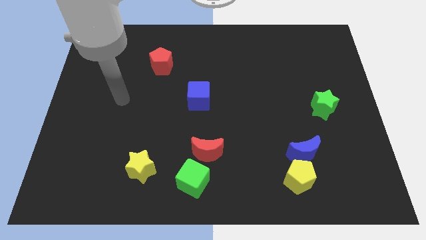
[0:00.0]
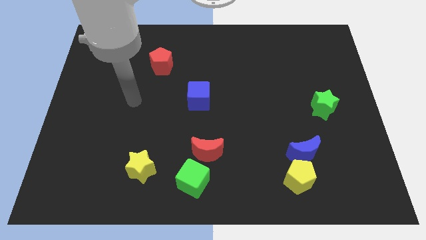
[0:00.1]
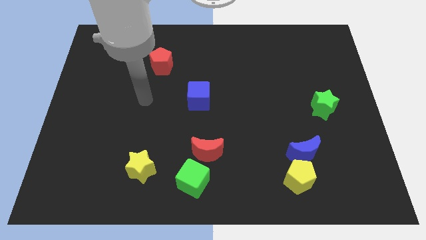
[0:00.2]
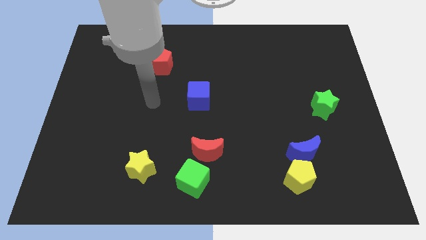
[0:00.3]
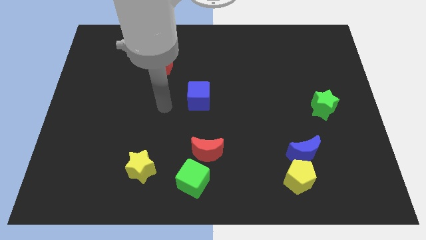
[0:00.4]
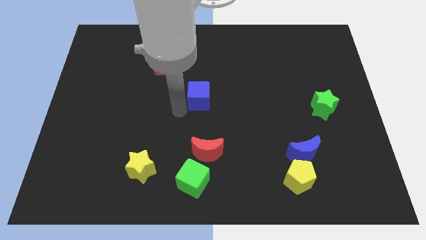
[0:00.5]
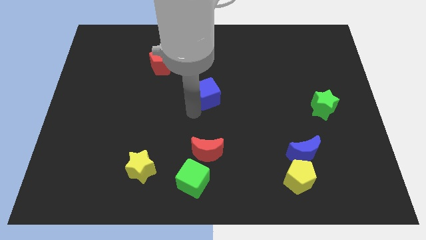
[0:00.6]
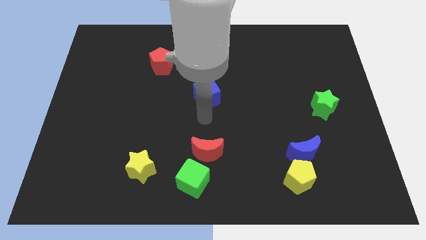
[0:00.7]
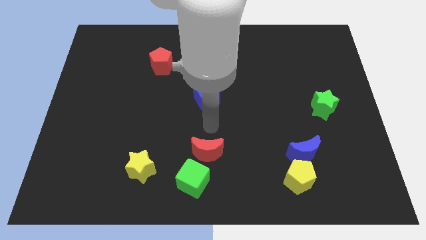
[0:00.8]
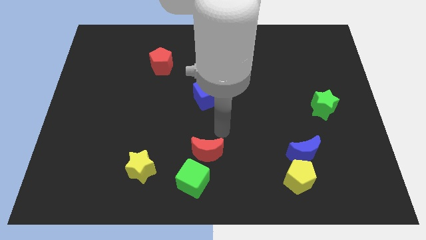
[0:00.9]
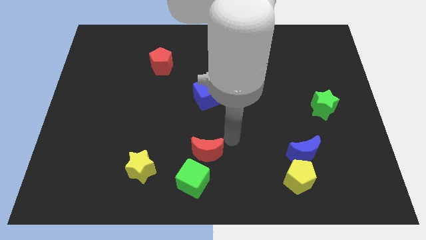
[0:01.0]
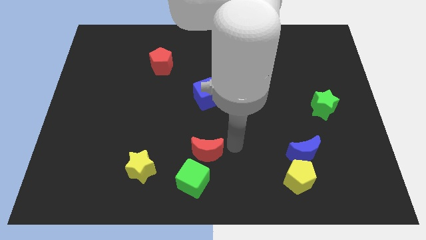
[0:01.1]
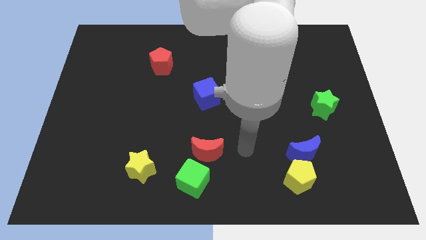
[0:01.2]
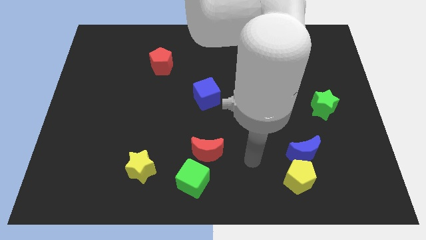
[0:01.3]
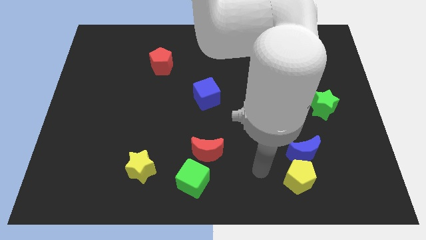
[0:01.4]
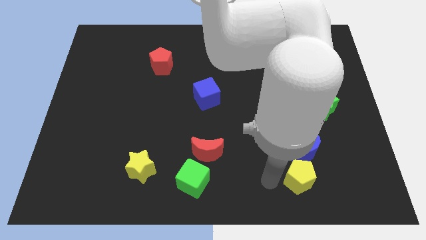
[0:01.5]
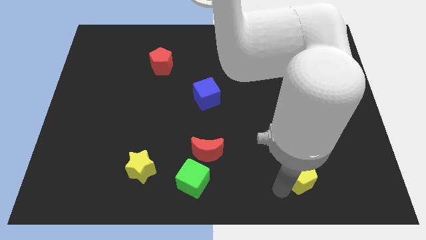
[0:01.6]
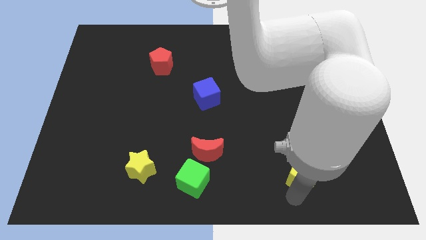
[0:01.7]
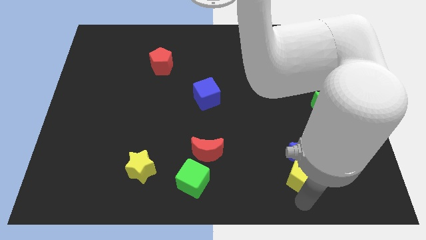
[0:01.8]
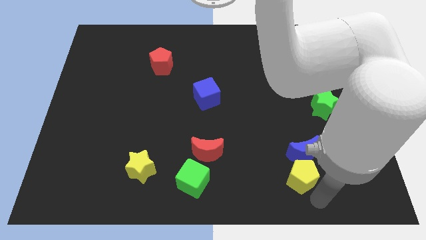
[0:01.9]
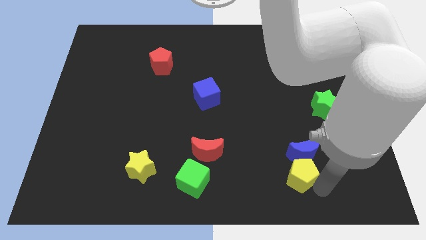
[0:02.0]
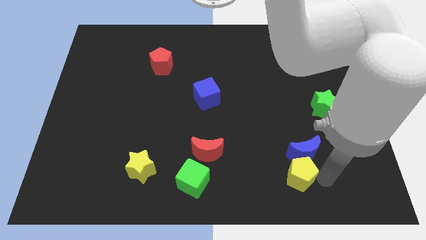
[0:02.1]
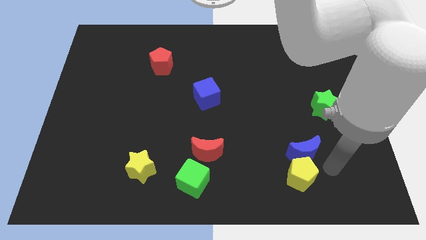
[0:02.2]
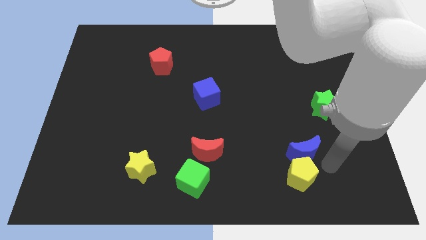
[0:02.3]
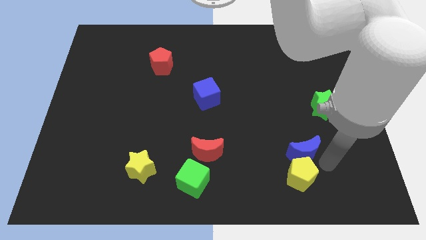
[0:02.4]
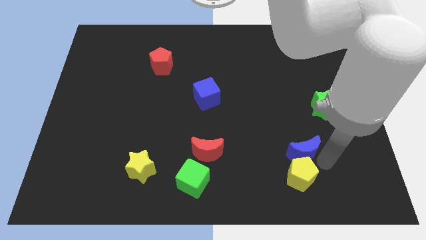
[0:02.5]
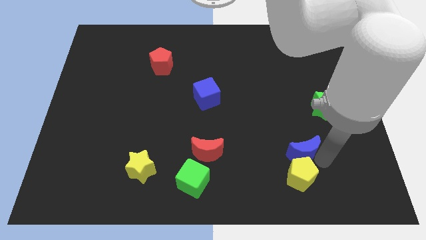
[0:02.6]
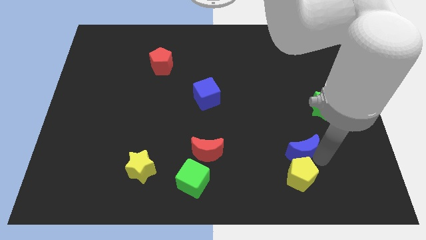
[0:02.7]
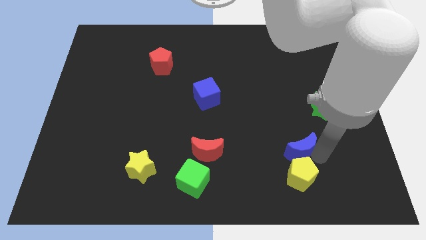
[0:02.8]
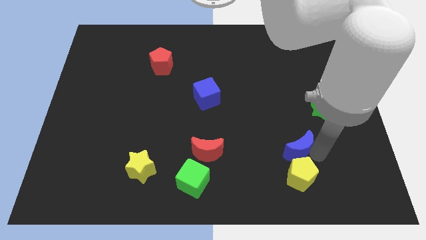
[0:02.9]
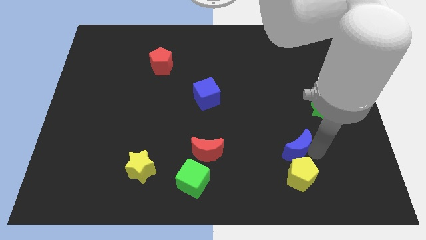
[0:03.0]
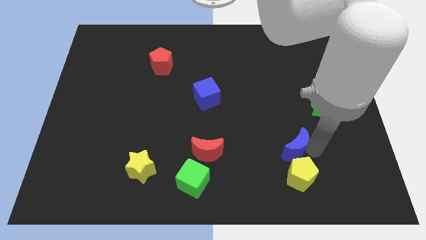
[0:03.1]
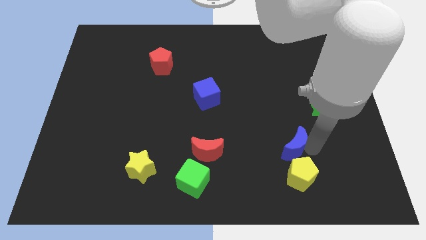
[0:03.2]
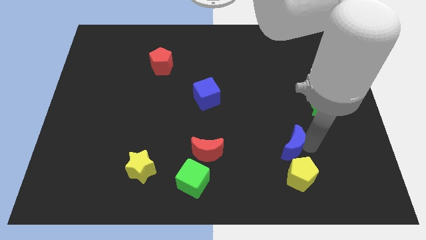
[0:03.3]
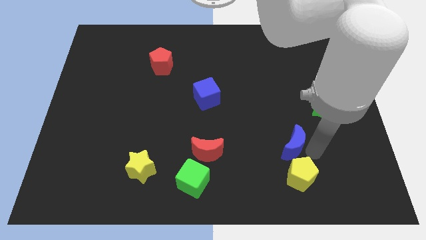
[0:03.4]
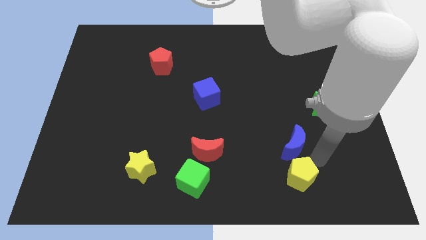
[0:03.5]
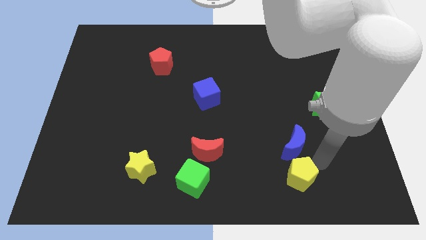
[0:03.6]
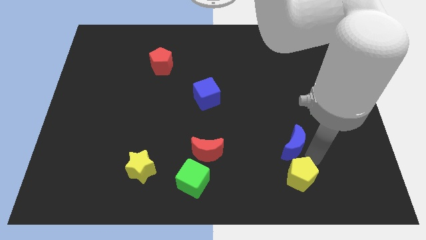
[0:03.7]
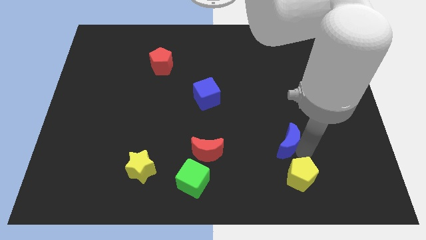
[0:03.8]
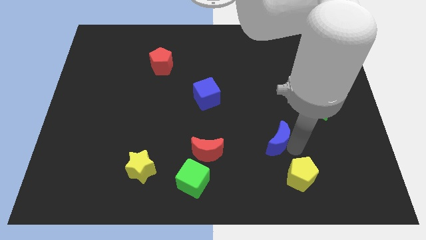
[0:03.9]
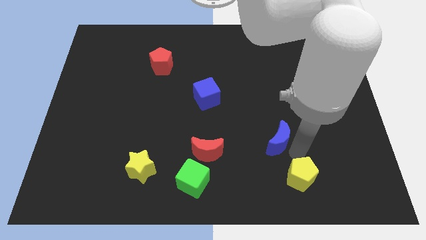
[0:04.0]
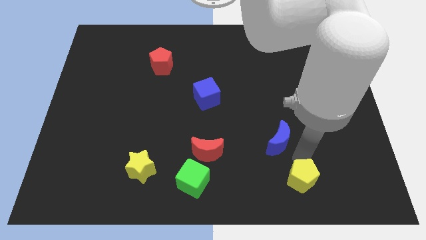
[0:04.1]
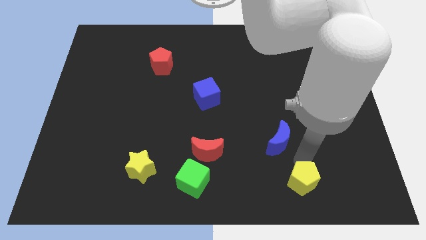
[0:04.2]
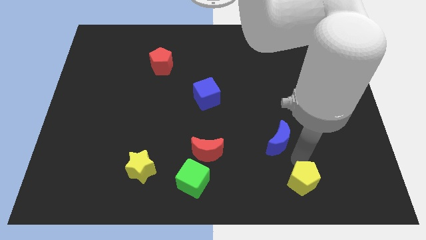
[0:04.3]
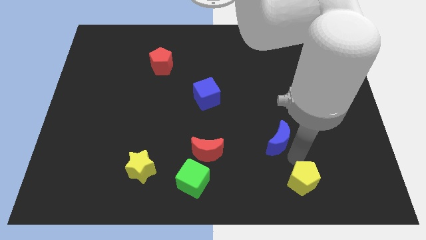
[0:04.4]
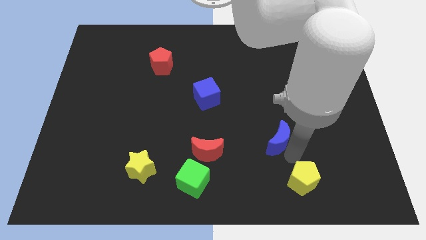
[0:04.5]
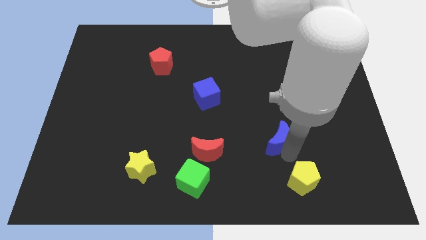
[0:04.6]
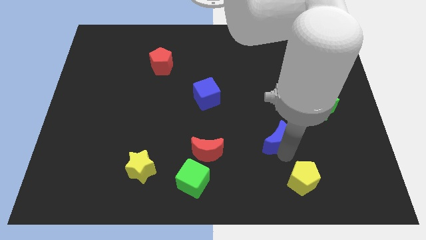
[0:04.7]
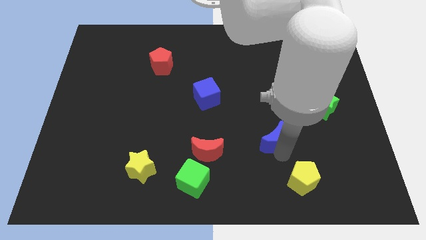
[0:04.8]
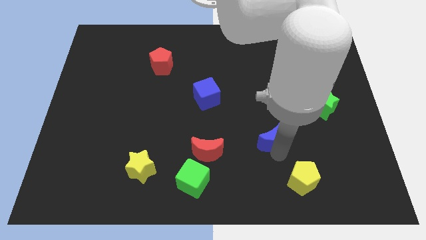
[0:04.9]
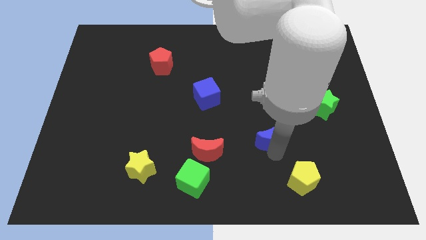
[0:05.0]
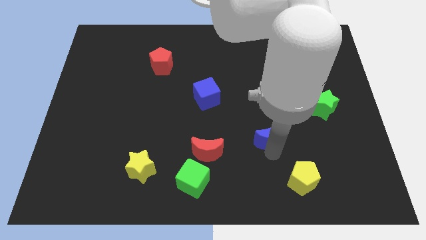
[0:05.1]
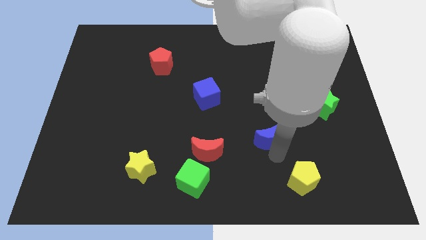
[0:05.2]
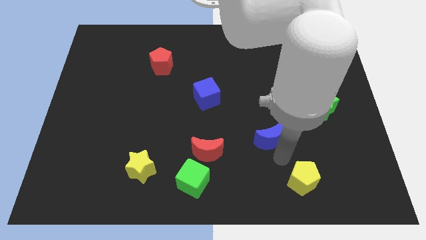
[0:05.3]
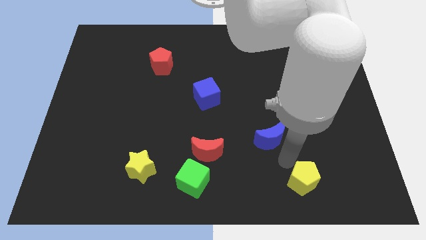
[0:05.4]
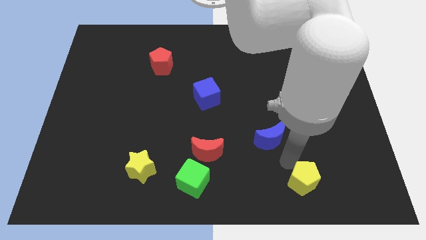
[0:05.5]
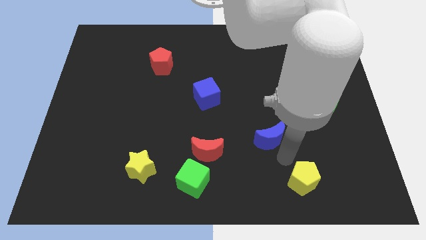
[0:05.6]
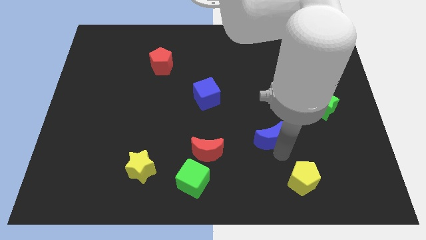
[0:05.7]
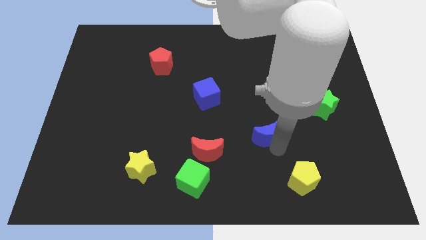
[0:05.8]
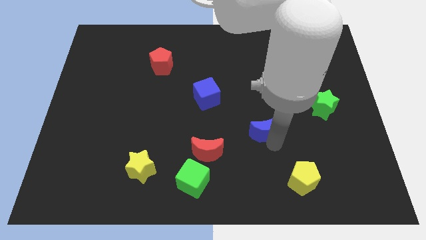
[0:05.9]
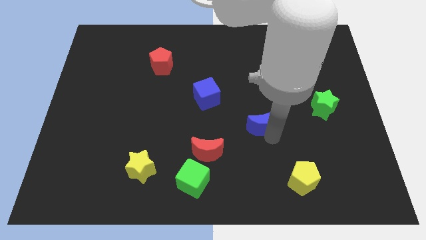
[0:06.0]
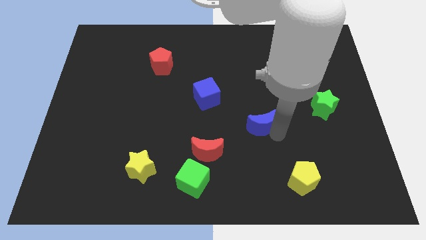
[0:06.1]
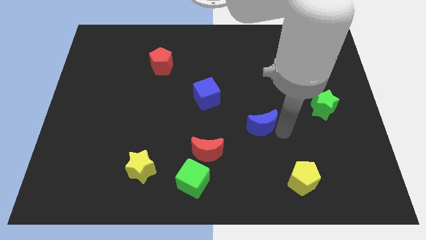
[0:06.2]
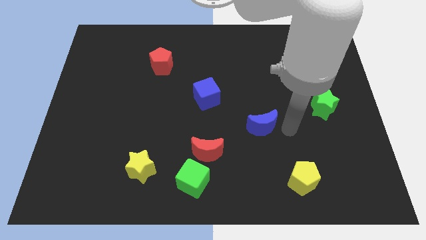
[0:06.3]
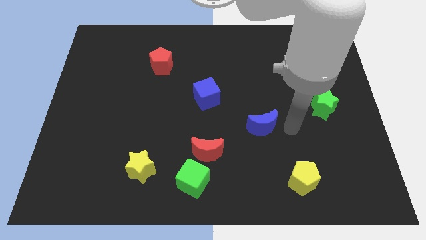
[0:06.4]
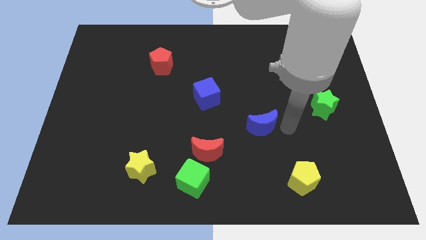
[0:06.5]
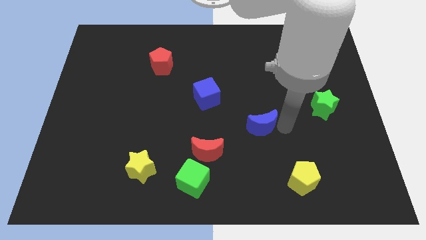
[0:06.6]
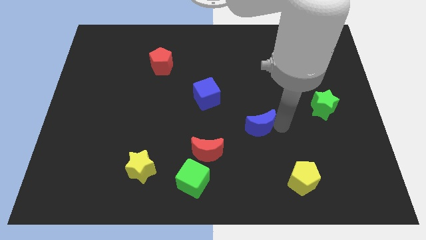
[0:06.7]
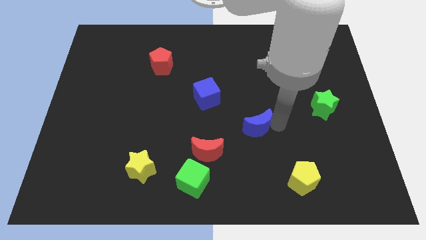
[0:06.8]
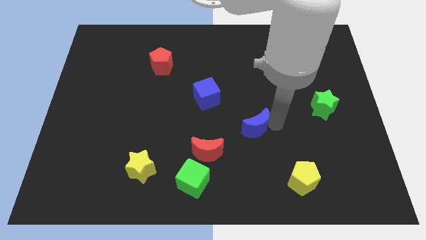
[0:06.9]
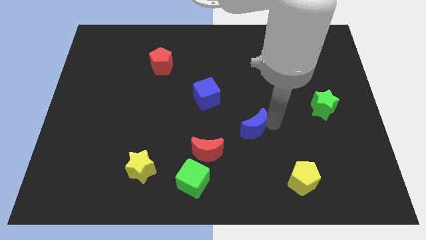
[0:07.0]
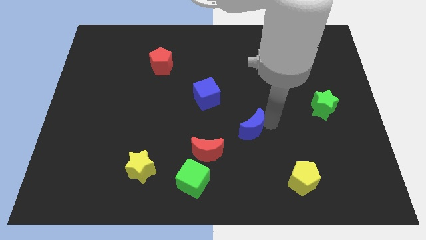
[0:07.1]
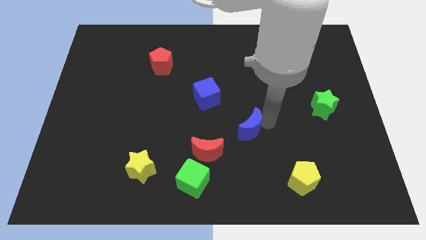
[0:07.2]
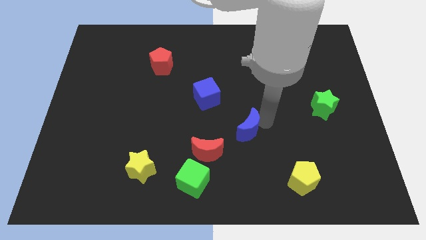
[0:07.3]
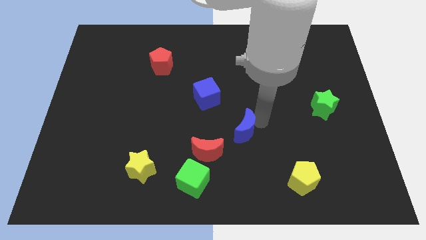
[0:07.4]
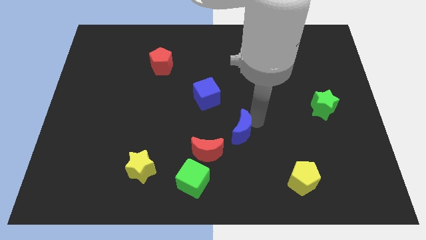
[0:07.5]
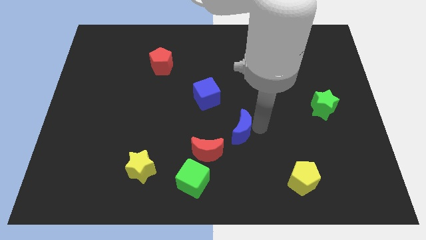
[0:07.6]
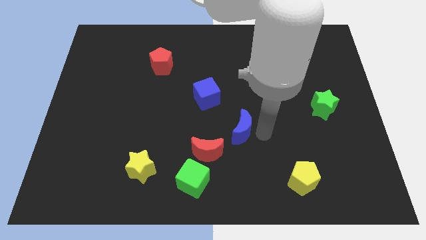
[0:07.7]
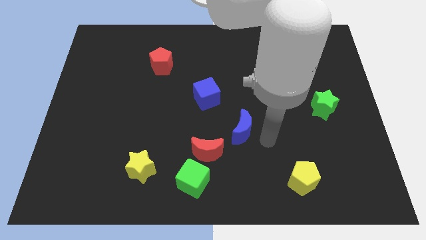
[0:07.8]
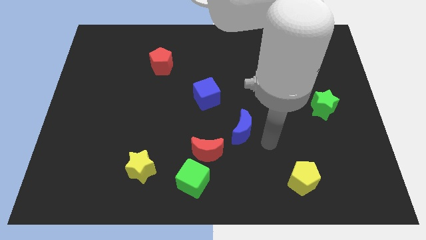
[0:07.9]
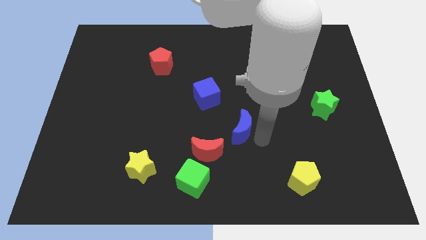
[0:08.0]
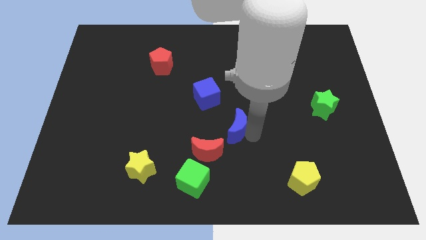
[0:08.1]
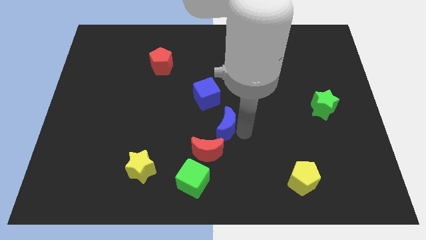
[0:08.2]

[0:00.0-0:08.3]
put the blue moon to the top of the red moon
